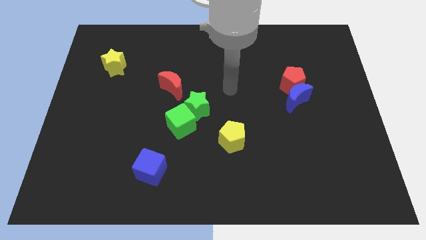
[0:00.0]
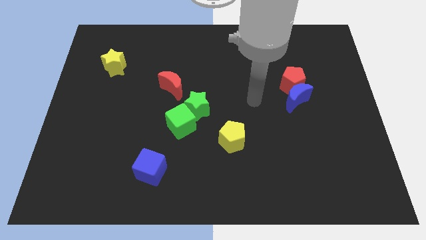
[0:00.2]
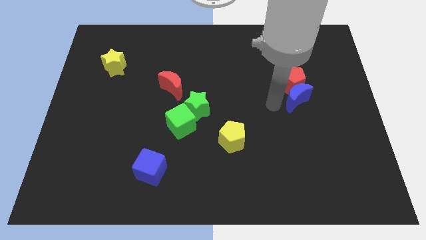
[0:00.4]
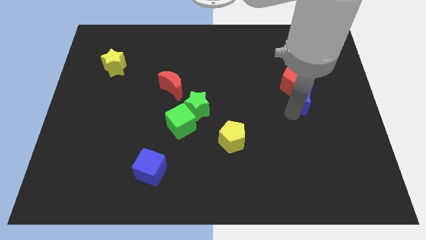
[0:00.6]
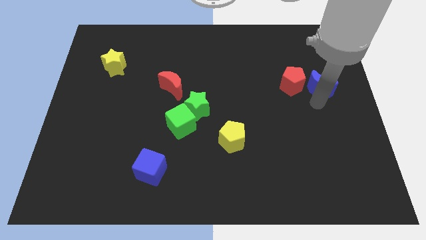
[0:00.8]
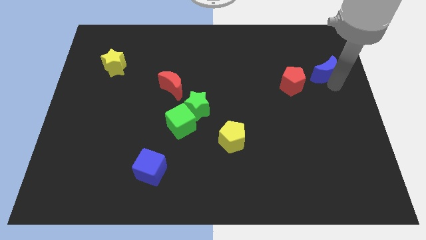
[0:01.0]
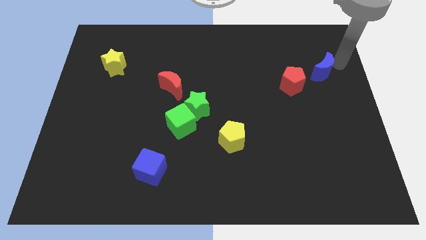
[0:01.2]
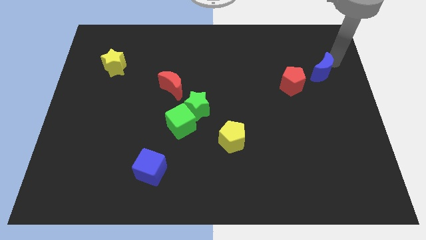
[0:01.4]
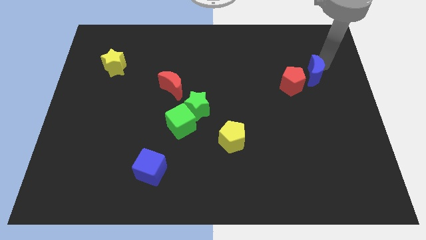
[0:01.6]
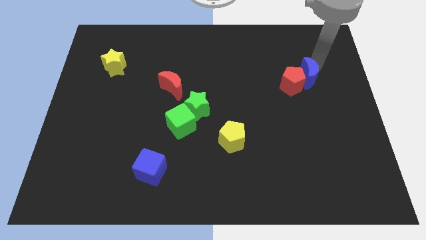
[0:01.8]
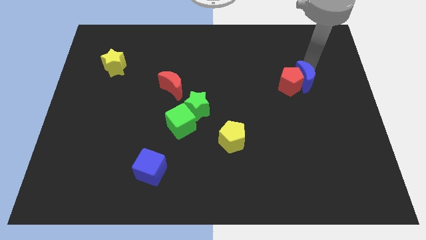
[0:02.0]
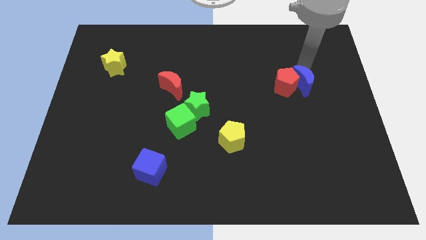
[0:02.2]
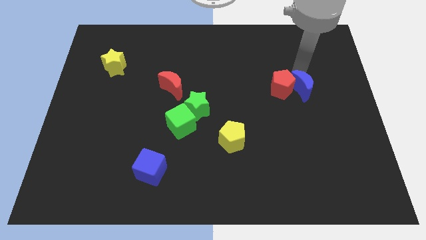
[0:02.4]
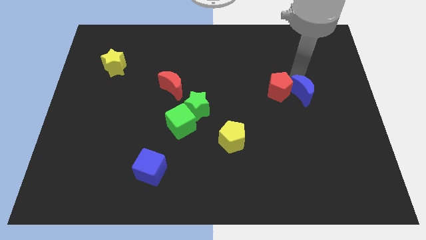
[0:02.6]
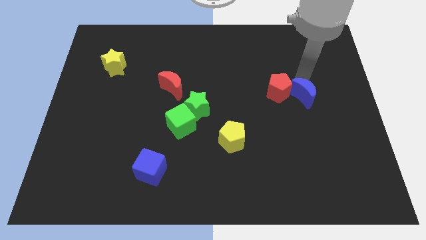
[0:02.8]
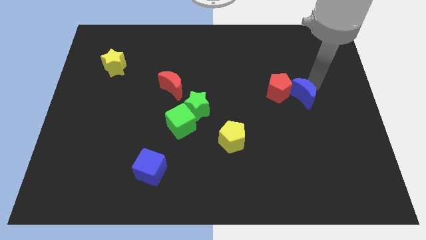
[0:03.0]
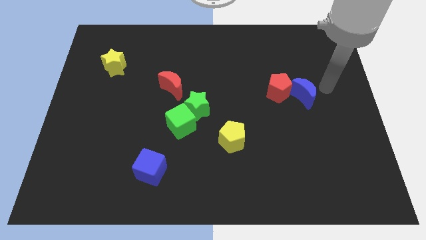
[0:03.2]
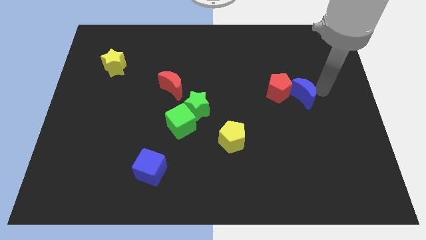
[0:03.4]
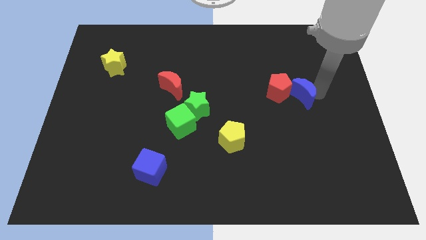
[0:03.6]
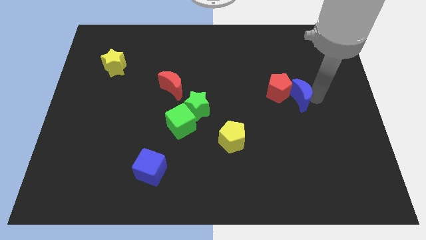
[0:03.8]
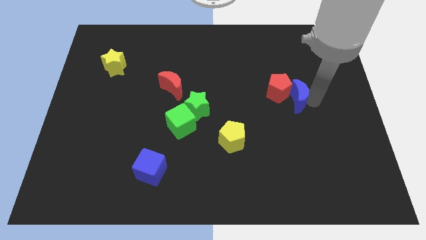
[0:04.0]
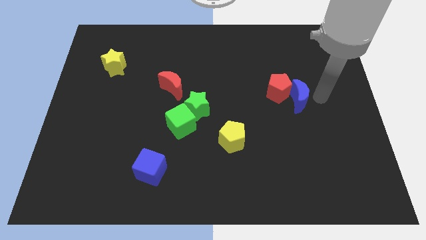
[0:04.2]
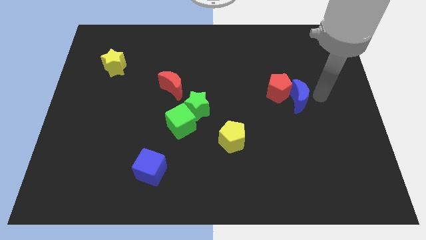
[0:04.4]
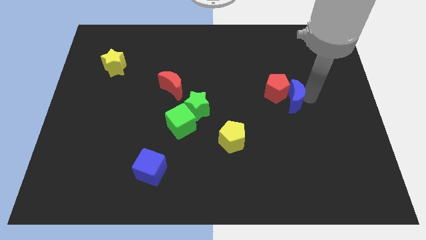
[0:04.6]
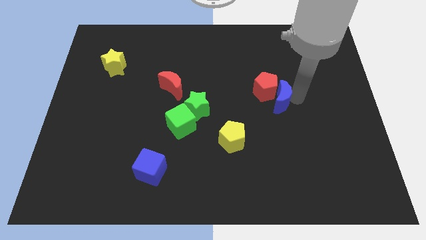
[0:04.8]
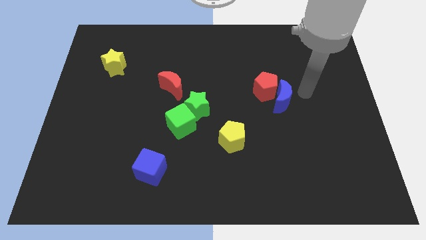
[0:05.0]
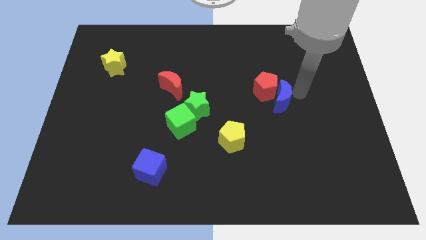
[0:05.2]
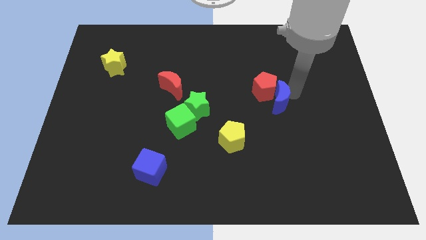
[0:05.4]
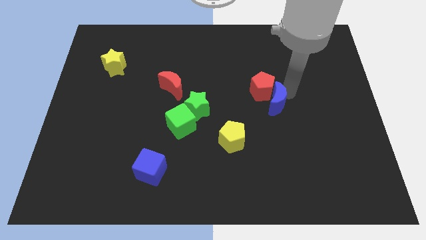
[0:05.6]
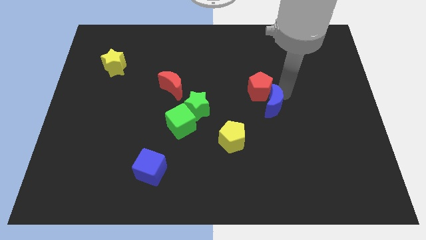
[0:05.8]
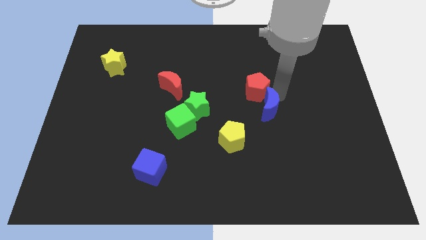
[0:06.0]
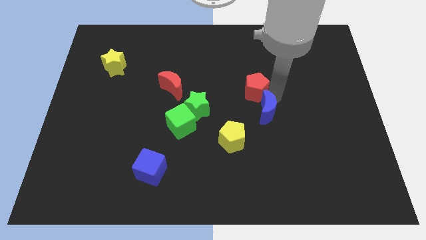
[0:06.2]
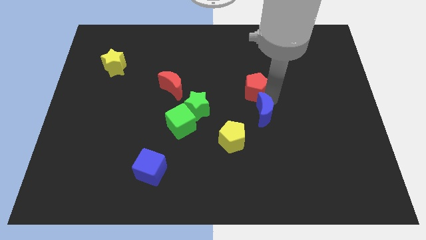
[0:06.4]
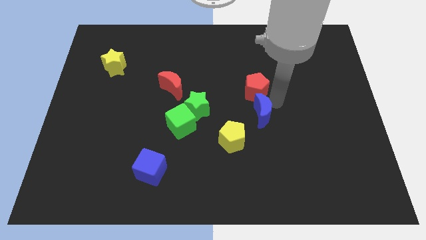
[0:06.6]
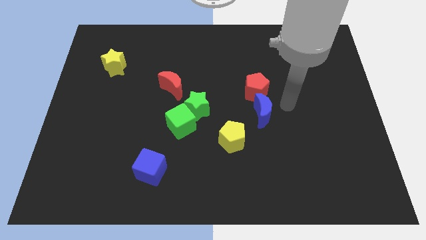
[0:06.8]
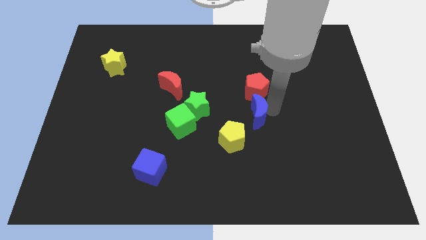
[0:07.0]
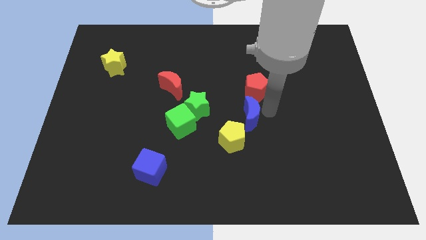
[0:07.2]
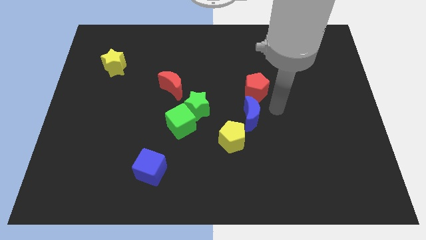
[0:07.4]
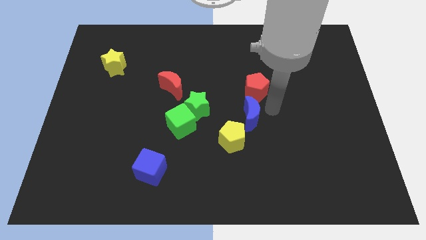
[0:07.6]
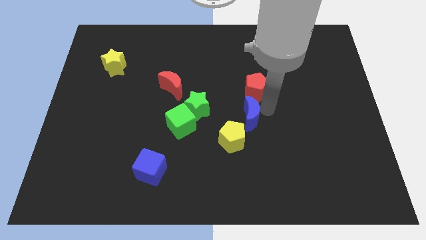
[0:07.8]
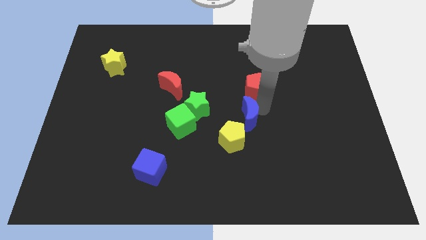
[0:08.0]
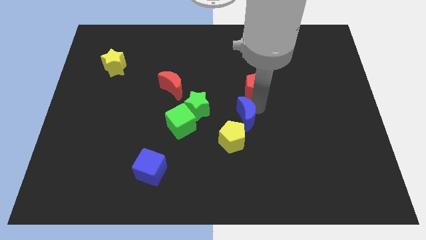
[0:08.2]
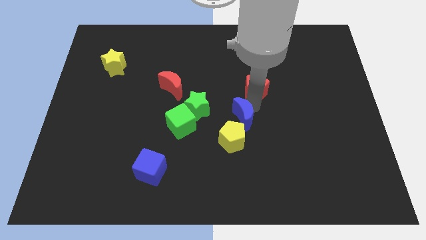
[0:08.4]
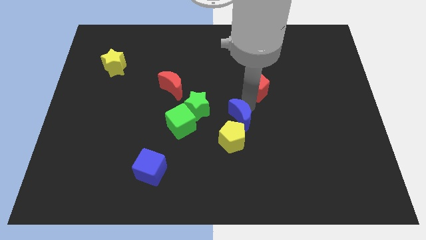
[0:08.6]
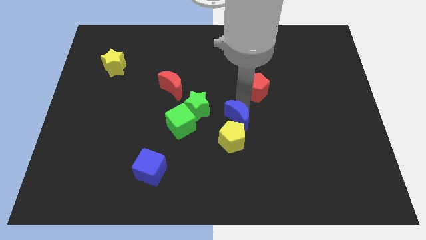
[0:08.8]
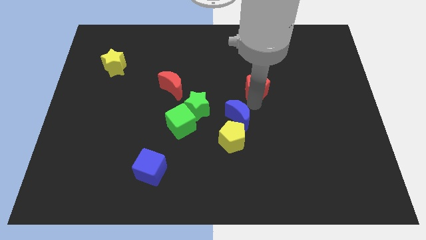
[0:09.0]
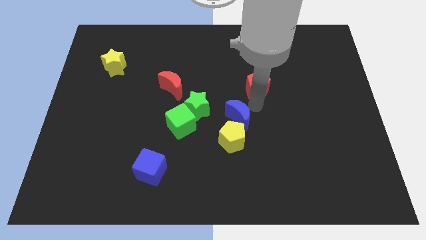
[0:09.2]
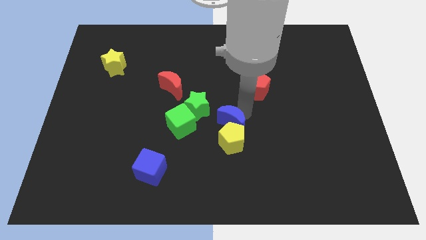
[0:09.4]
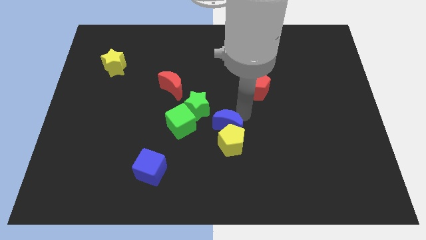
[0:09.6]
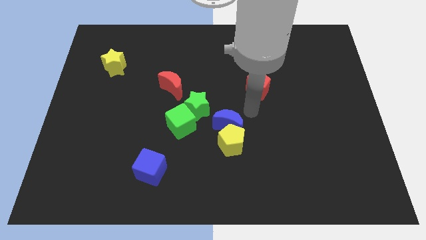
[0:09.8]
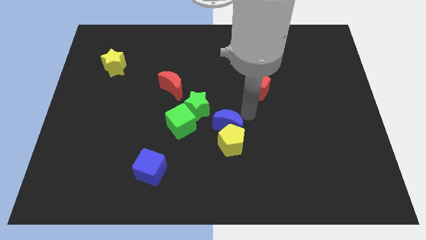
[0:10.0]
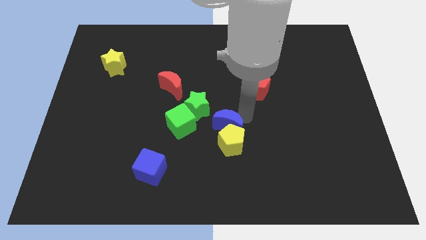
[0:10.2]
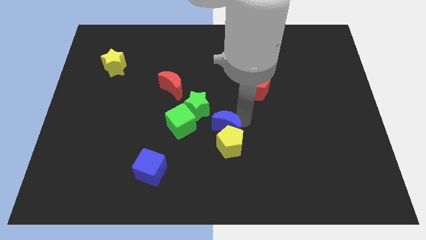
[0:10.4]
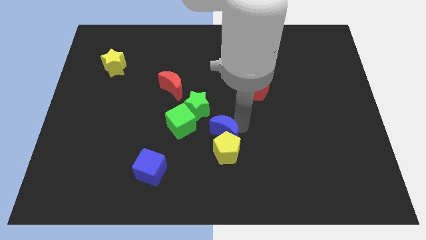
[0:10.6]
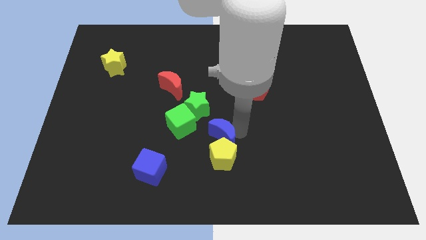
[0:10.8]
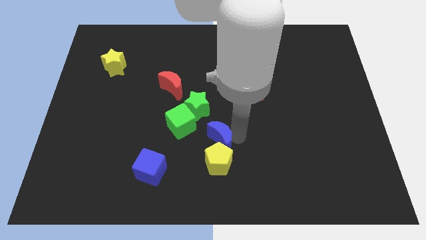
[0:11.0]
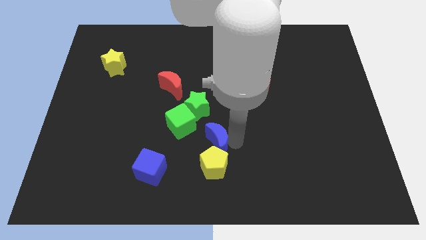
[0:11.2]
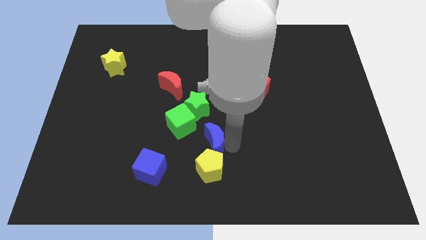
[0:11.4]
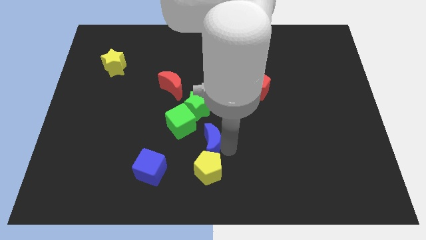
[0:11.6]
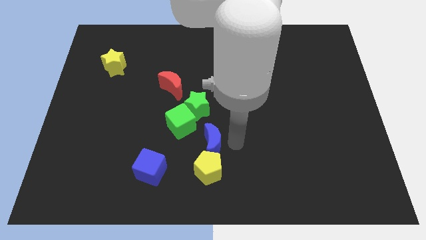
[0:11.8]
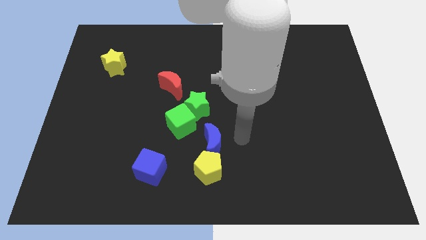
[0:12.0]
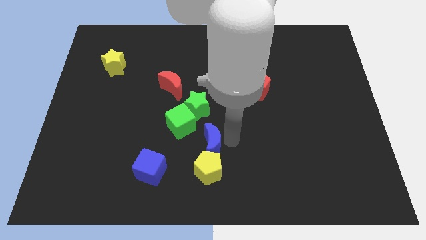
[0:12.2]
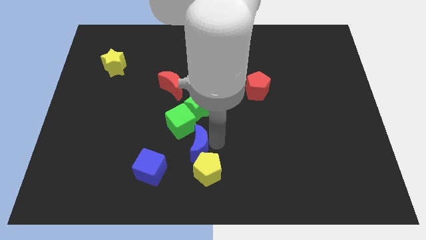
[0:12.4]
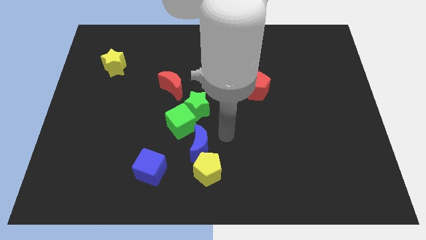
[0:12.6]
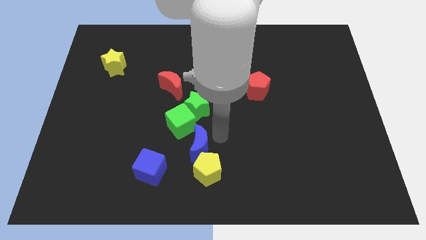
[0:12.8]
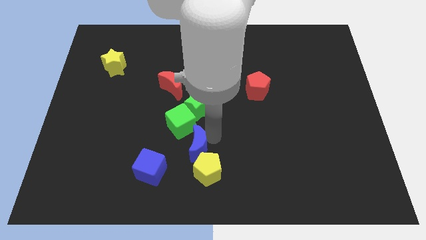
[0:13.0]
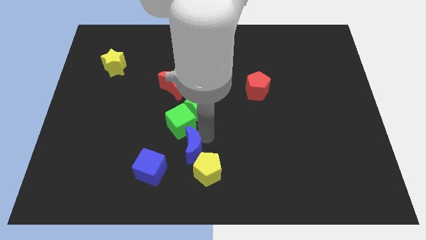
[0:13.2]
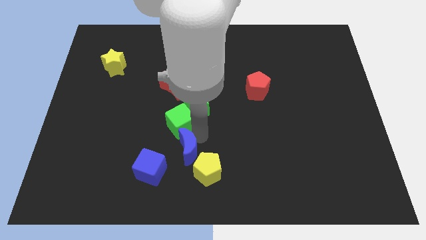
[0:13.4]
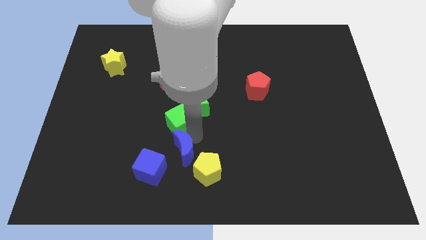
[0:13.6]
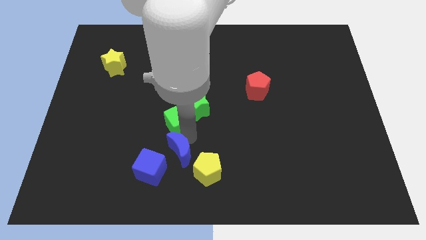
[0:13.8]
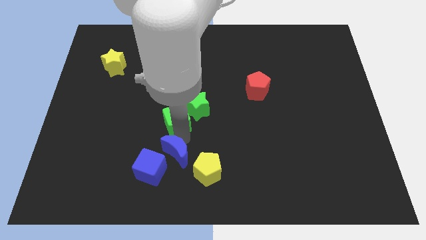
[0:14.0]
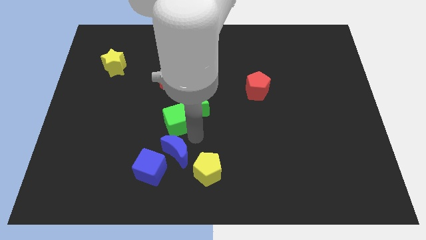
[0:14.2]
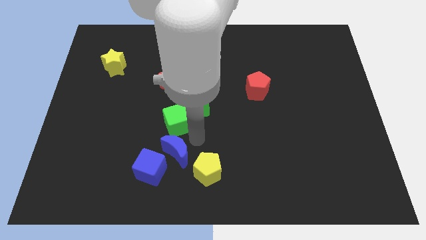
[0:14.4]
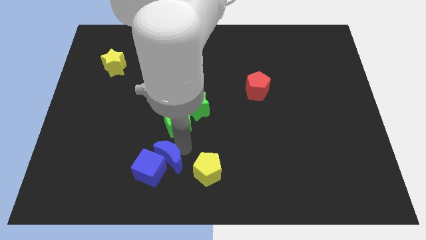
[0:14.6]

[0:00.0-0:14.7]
put the blue moon towards the blue cube

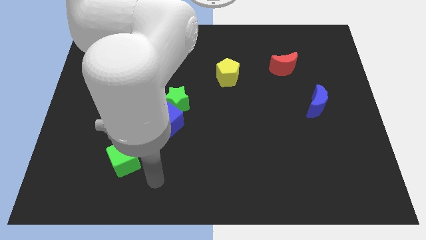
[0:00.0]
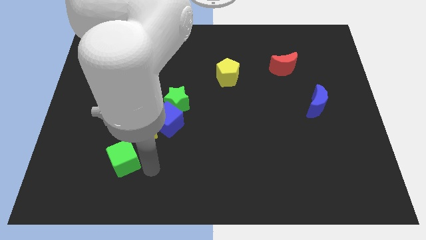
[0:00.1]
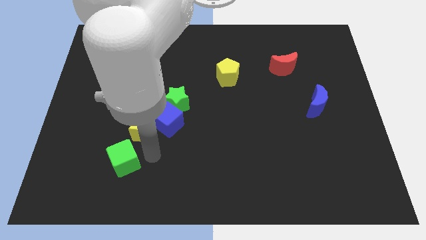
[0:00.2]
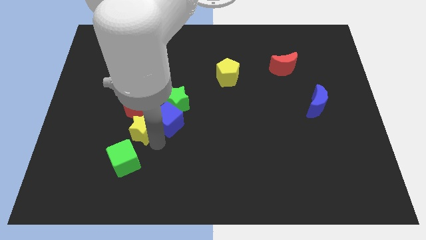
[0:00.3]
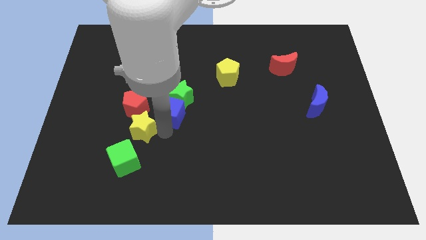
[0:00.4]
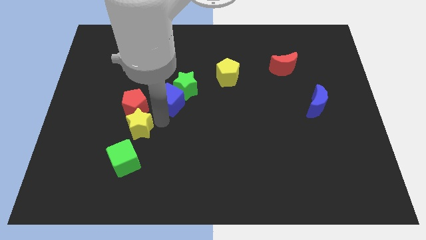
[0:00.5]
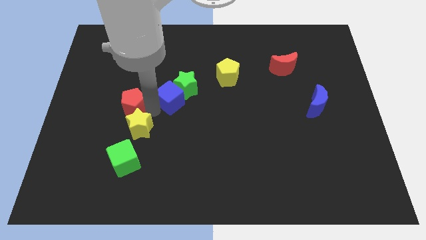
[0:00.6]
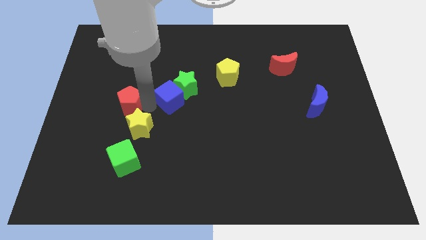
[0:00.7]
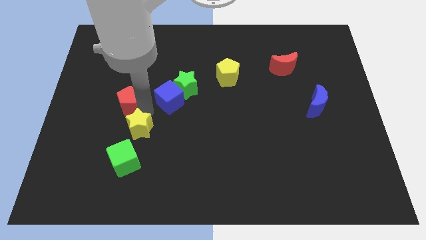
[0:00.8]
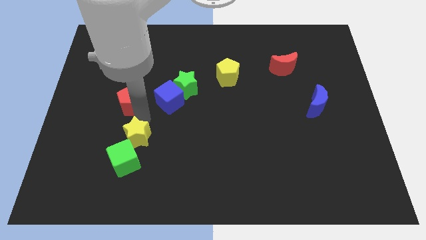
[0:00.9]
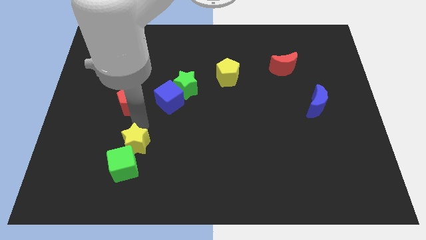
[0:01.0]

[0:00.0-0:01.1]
push the yellow star next to the green cube
